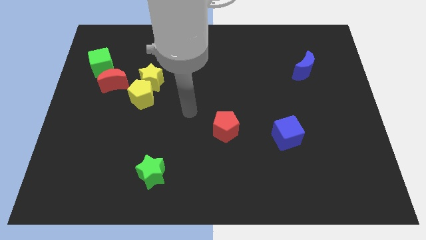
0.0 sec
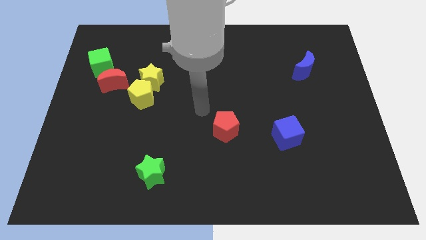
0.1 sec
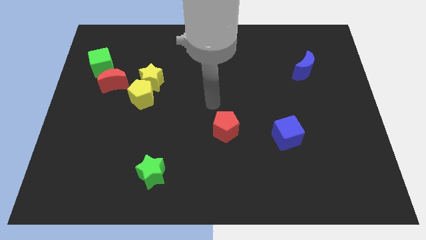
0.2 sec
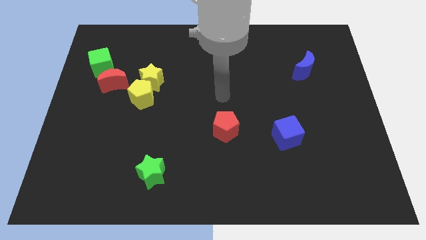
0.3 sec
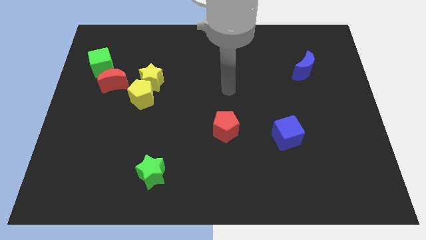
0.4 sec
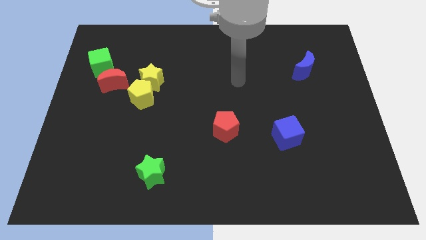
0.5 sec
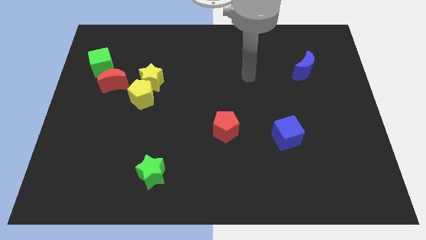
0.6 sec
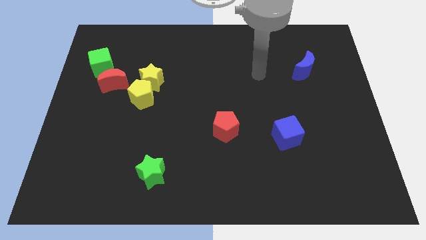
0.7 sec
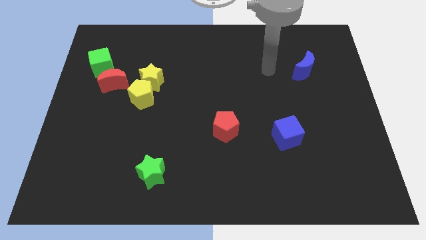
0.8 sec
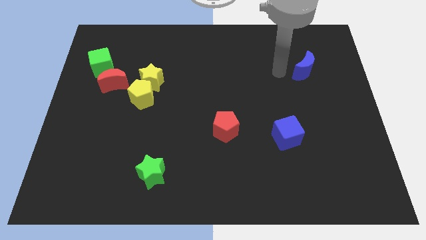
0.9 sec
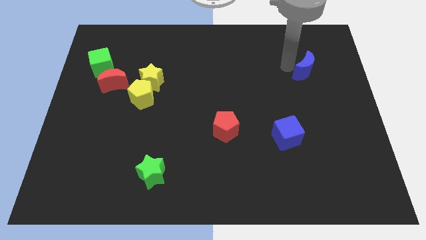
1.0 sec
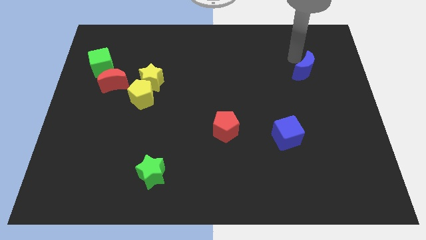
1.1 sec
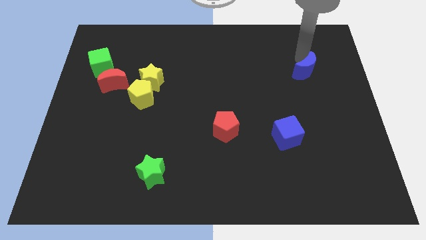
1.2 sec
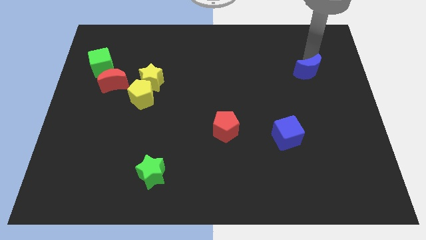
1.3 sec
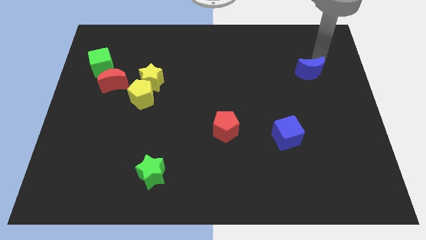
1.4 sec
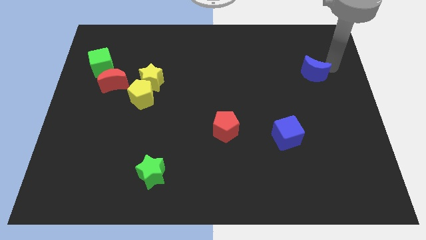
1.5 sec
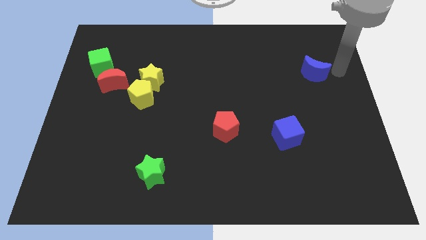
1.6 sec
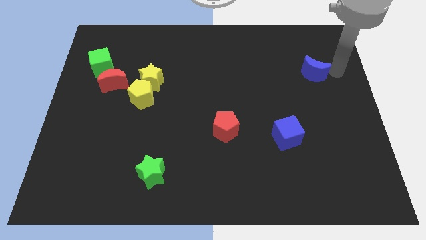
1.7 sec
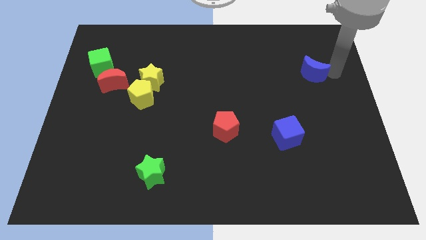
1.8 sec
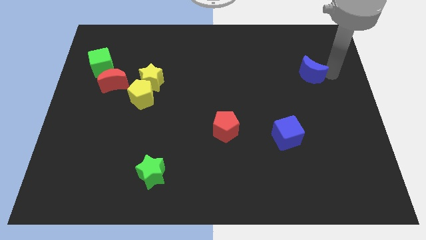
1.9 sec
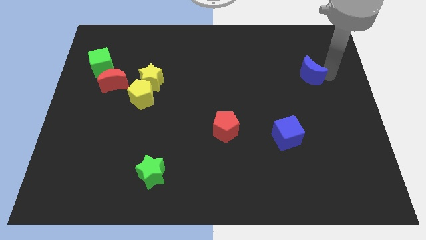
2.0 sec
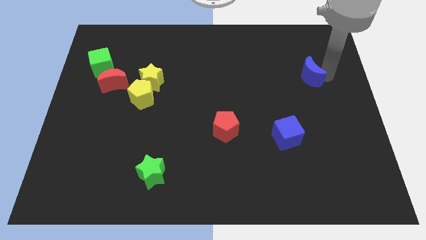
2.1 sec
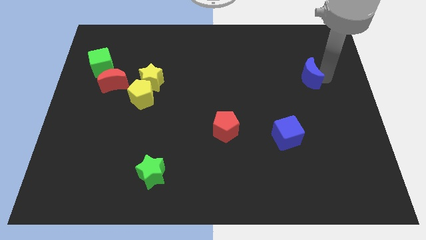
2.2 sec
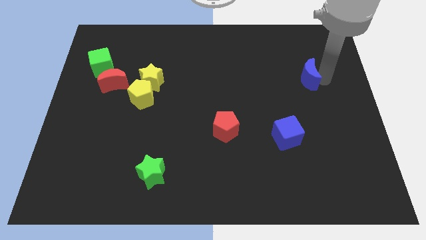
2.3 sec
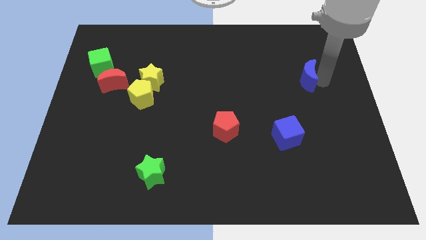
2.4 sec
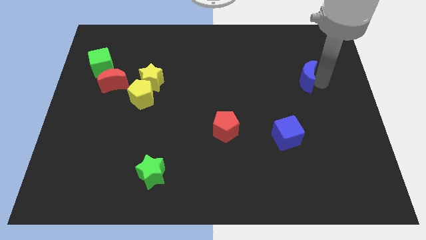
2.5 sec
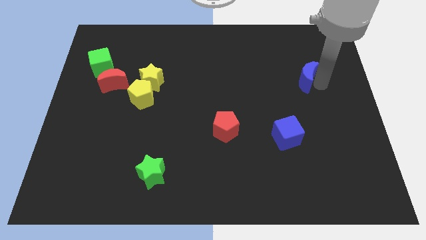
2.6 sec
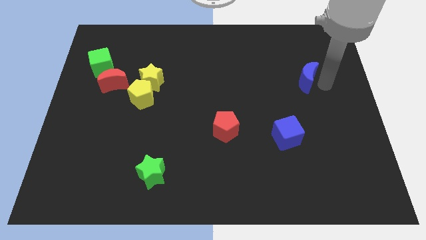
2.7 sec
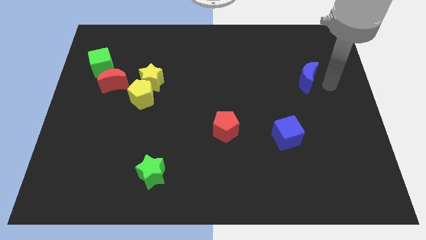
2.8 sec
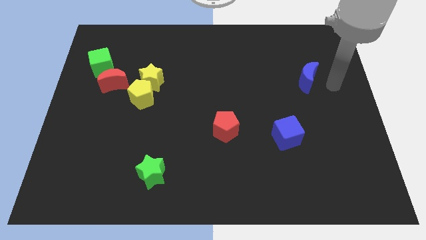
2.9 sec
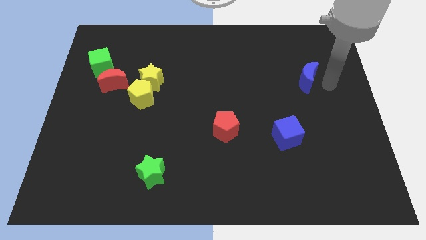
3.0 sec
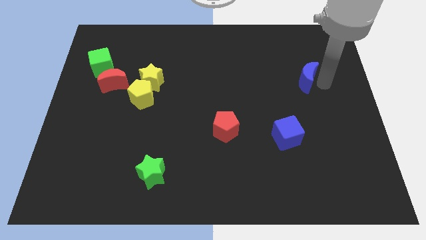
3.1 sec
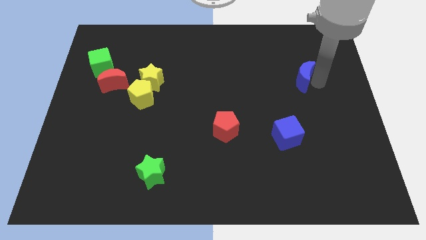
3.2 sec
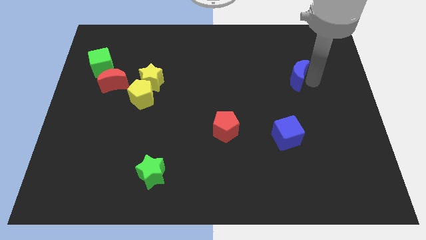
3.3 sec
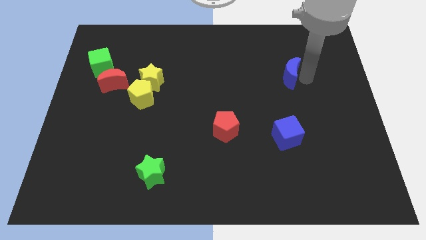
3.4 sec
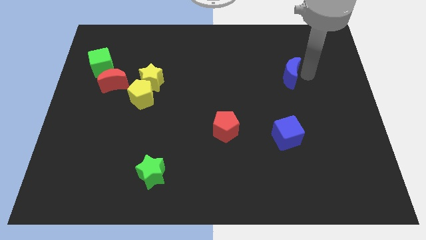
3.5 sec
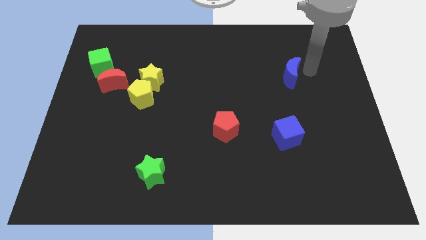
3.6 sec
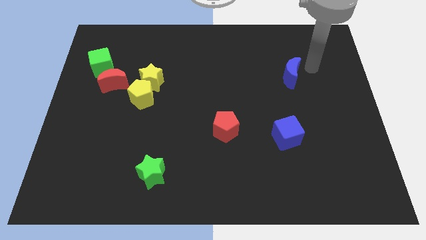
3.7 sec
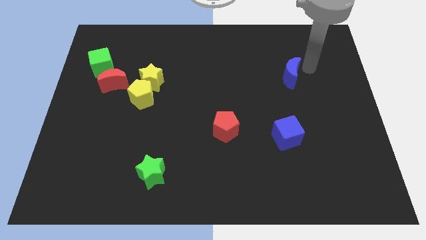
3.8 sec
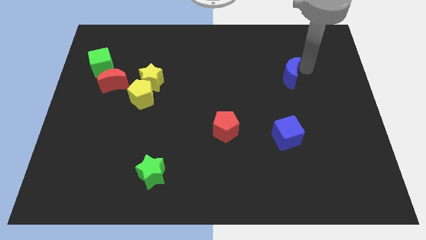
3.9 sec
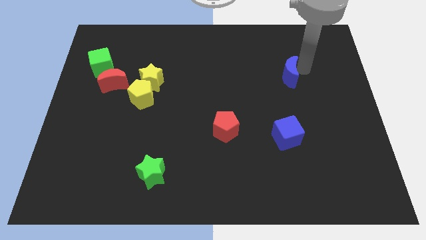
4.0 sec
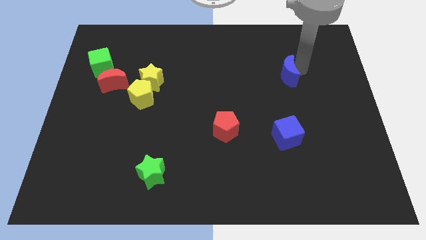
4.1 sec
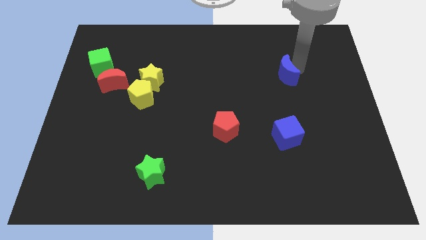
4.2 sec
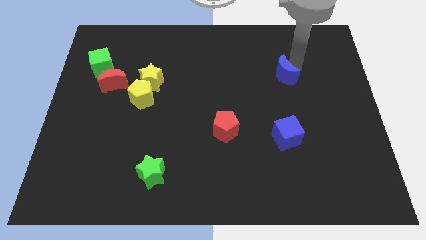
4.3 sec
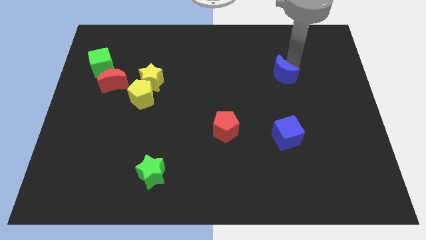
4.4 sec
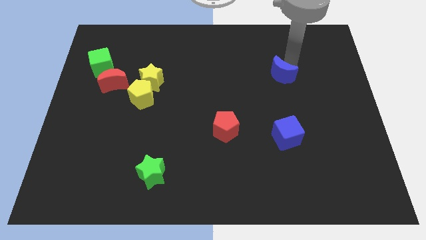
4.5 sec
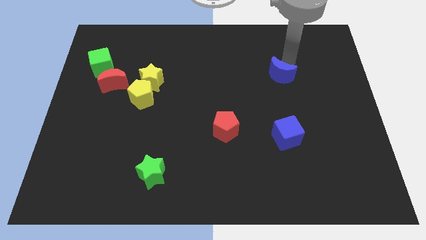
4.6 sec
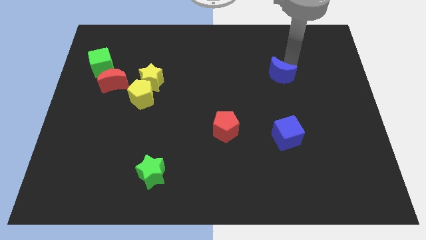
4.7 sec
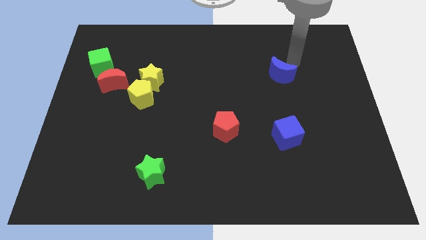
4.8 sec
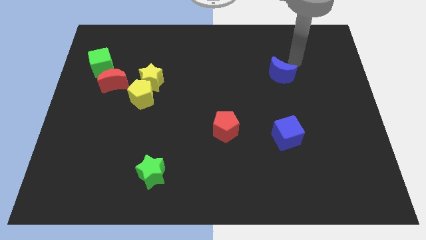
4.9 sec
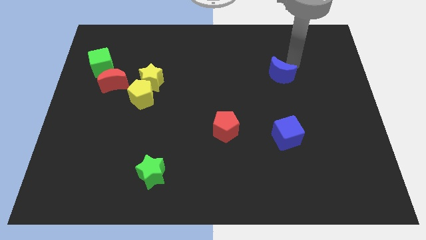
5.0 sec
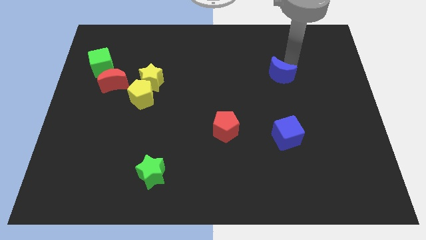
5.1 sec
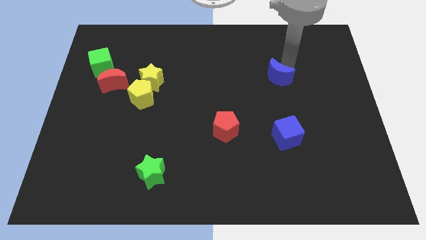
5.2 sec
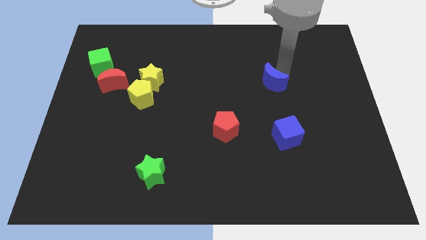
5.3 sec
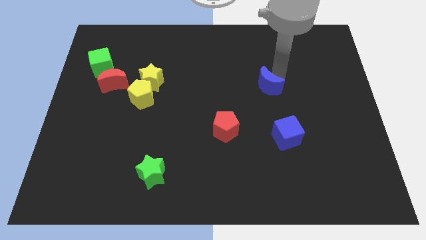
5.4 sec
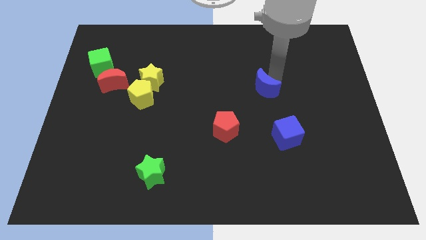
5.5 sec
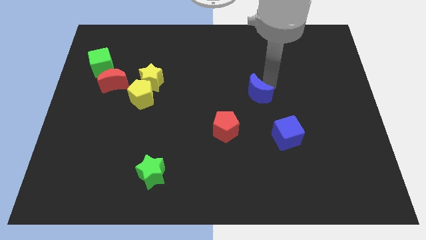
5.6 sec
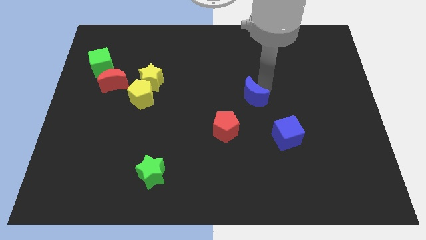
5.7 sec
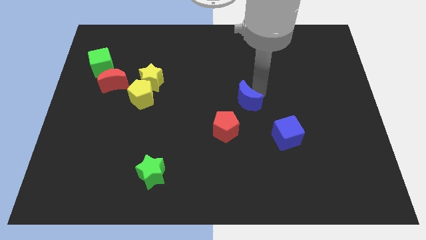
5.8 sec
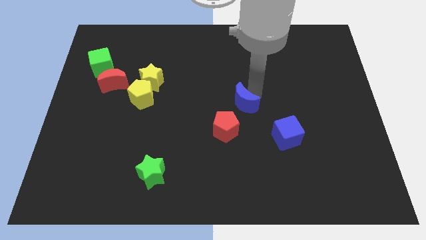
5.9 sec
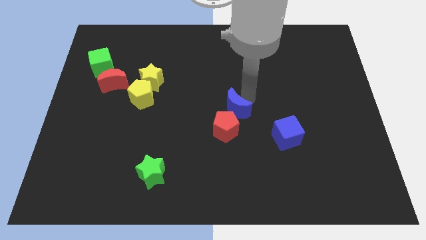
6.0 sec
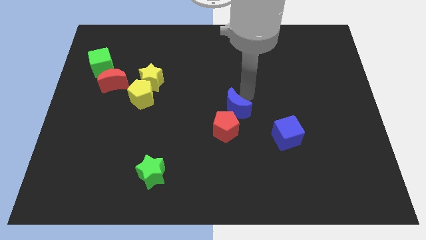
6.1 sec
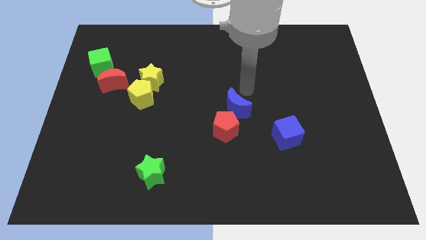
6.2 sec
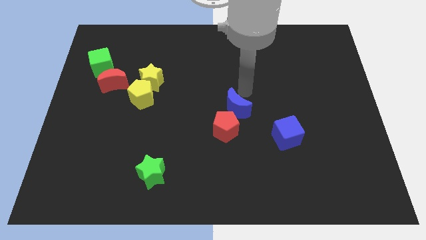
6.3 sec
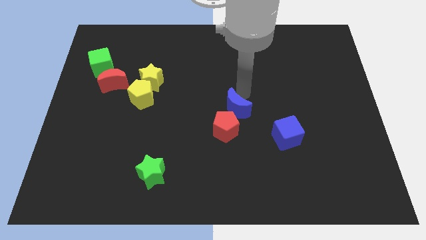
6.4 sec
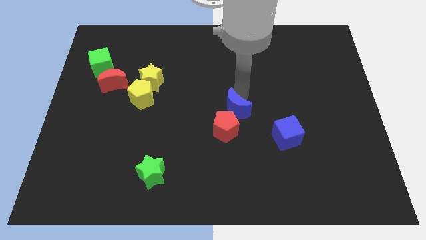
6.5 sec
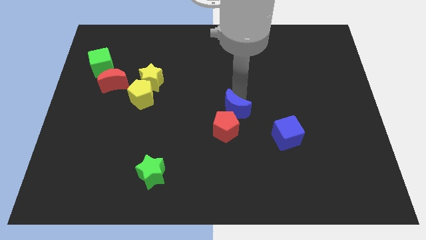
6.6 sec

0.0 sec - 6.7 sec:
move the blue moon close to the red pentagon

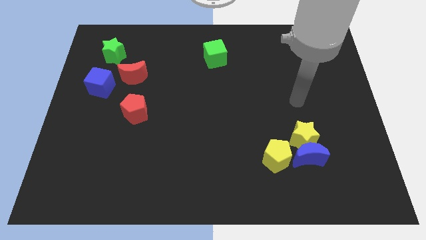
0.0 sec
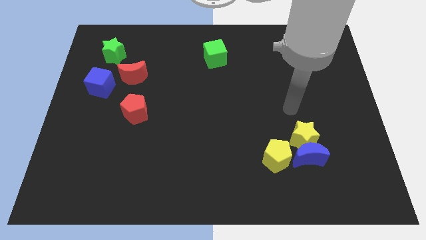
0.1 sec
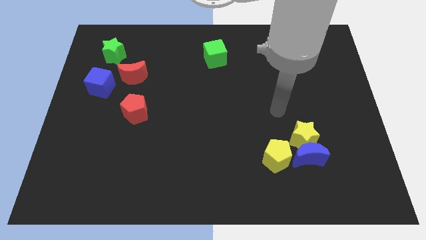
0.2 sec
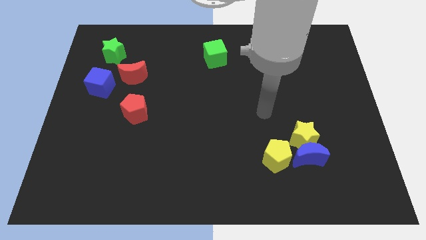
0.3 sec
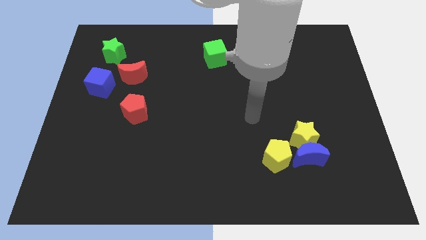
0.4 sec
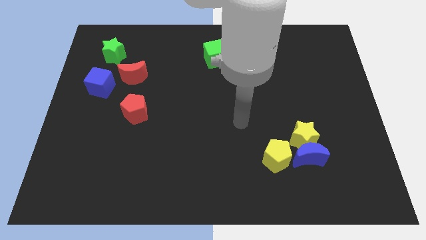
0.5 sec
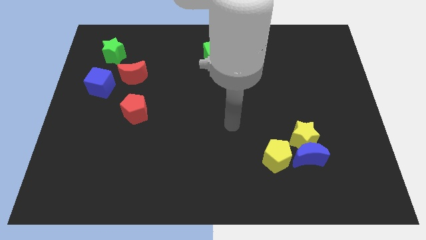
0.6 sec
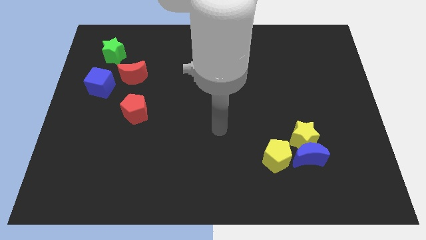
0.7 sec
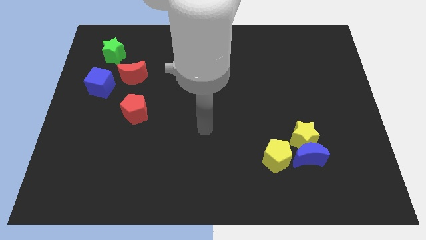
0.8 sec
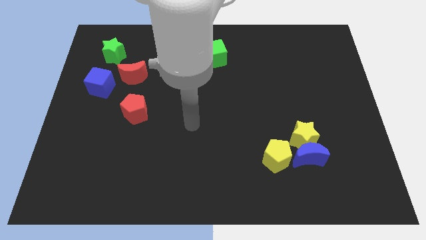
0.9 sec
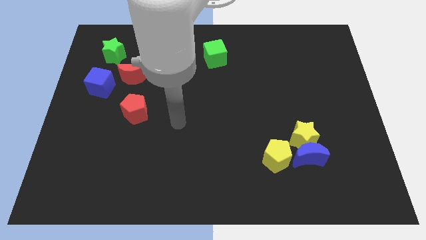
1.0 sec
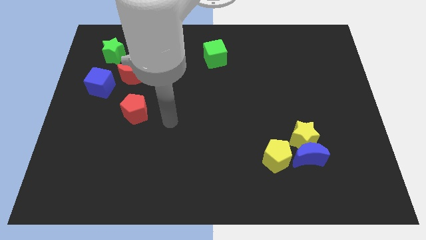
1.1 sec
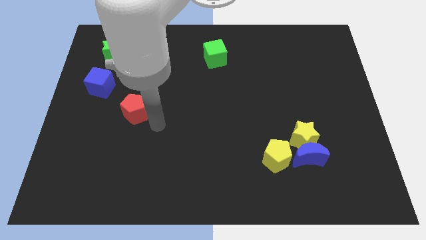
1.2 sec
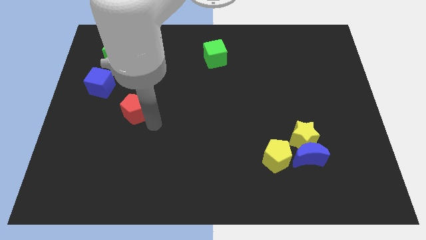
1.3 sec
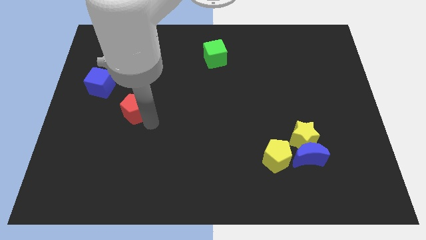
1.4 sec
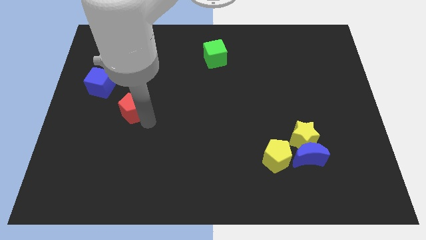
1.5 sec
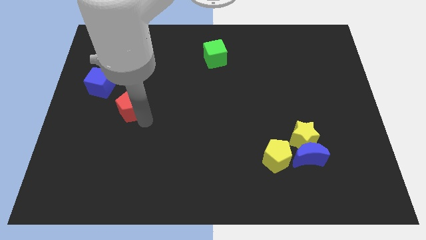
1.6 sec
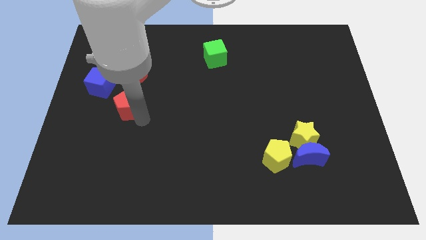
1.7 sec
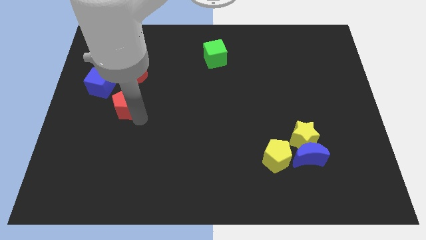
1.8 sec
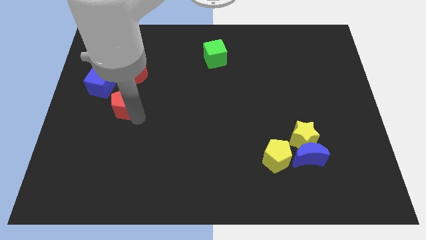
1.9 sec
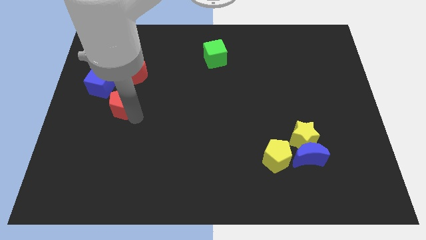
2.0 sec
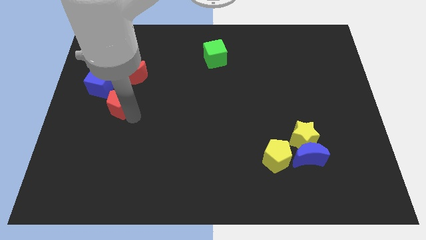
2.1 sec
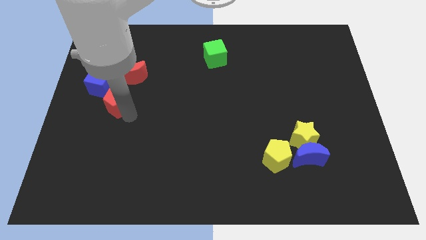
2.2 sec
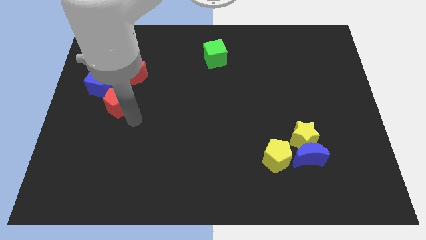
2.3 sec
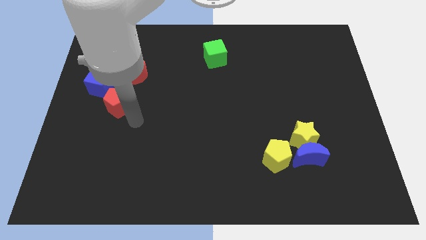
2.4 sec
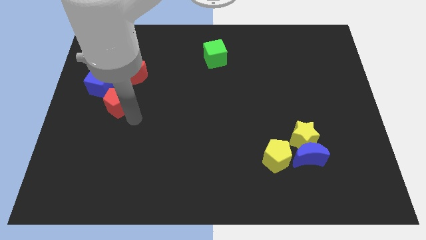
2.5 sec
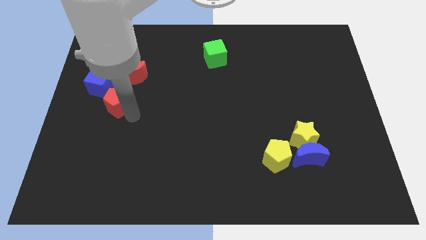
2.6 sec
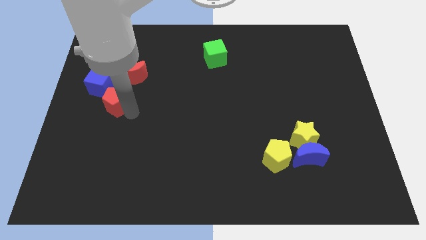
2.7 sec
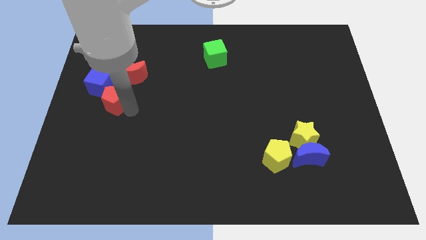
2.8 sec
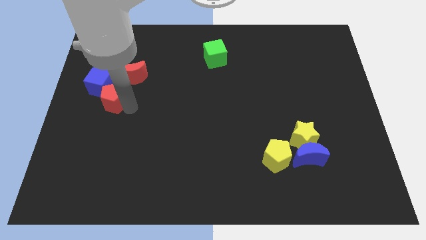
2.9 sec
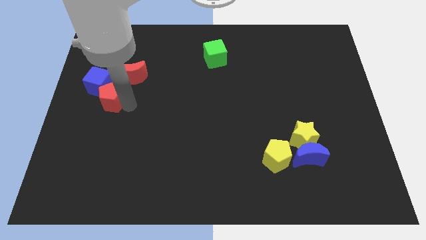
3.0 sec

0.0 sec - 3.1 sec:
move the red pentagon towards the blue cube
